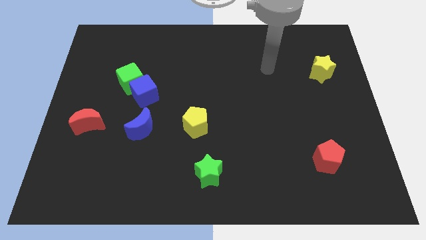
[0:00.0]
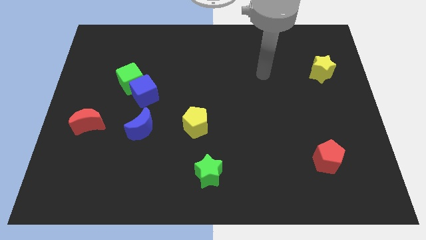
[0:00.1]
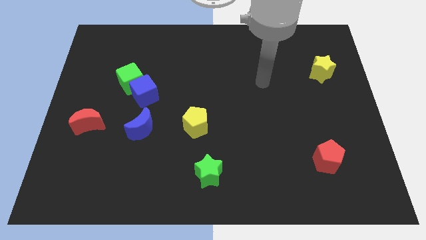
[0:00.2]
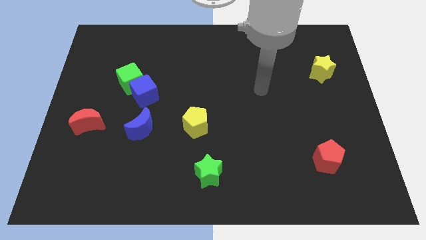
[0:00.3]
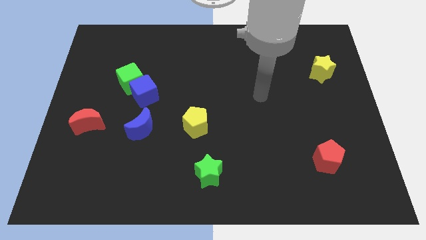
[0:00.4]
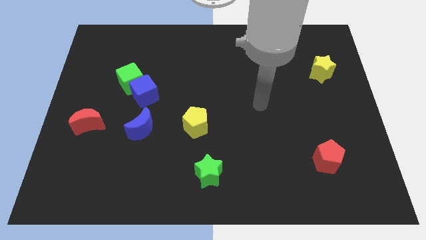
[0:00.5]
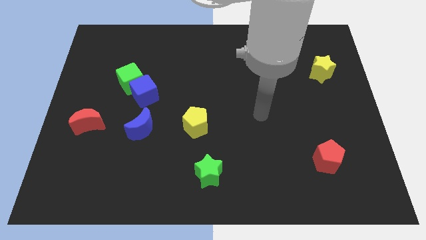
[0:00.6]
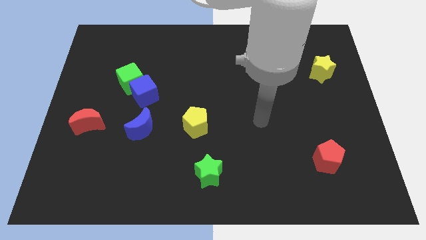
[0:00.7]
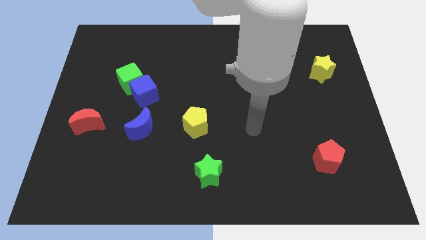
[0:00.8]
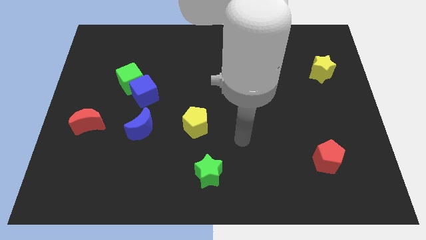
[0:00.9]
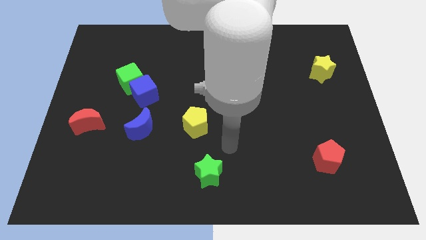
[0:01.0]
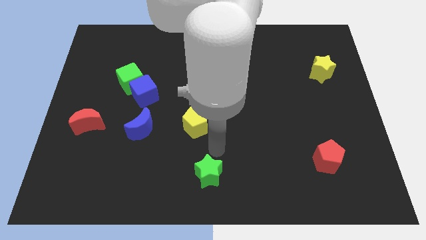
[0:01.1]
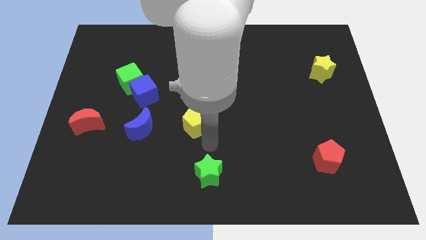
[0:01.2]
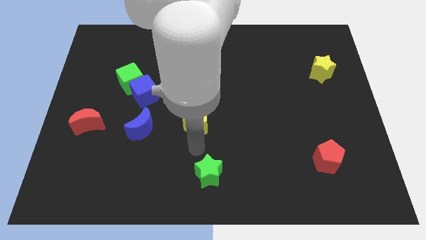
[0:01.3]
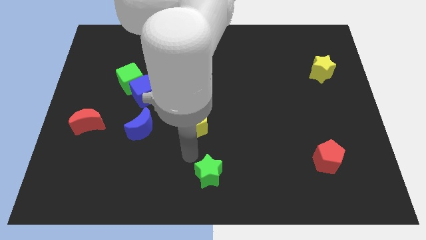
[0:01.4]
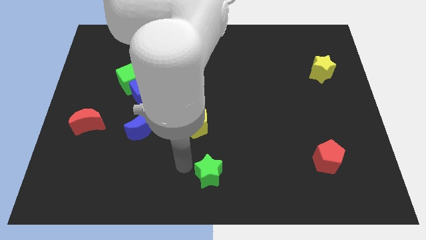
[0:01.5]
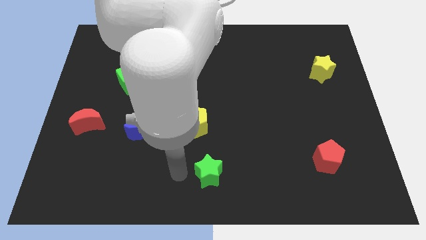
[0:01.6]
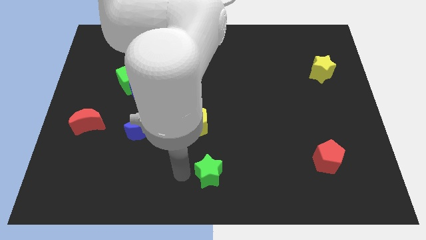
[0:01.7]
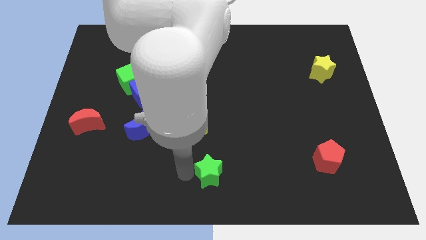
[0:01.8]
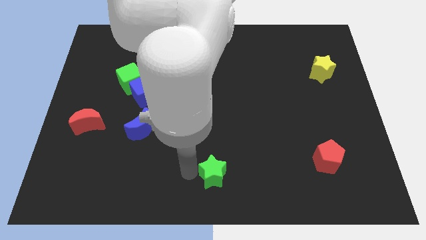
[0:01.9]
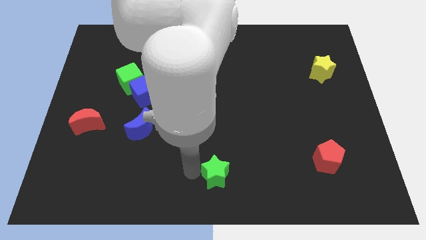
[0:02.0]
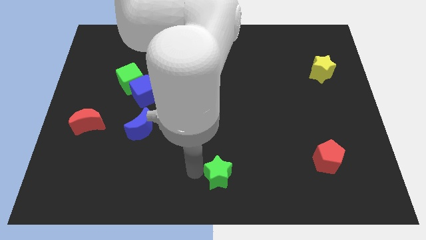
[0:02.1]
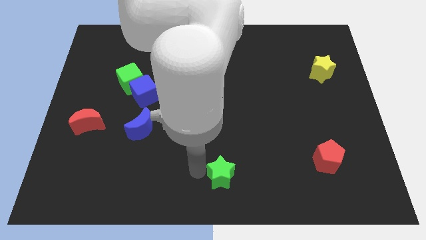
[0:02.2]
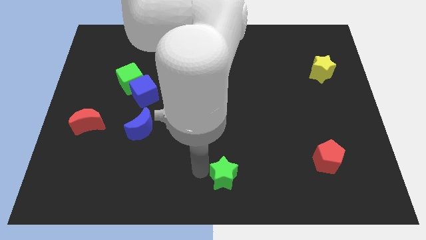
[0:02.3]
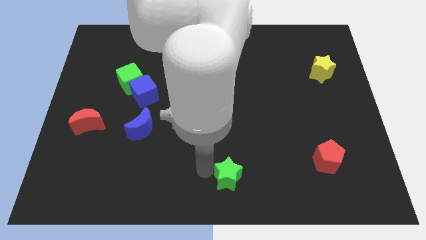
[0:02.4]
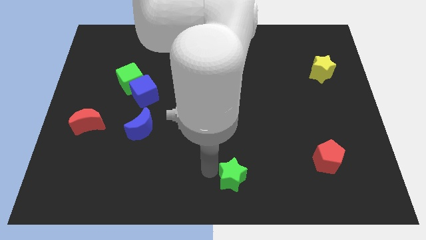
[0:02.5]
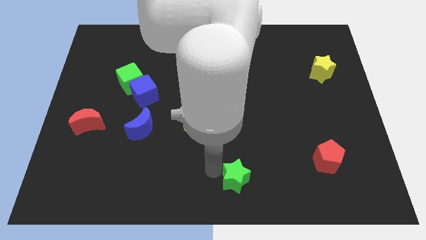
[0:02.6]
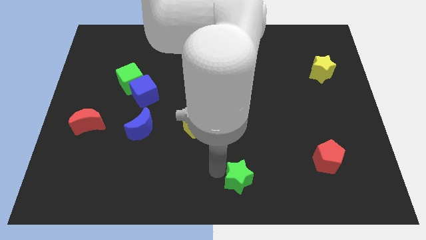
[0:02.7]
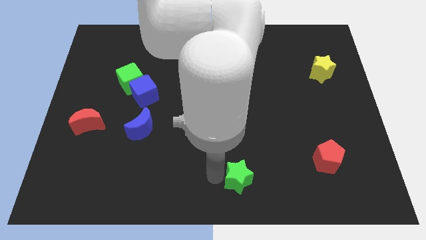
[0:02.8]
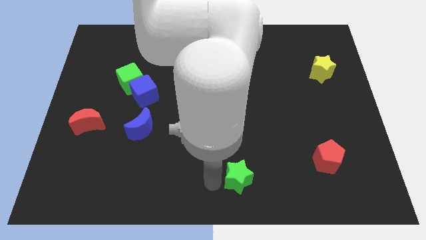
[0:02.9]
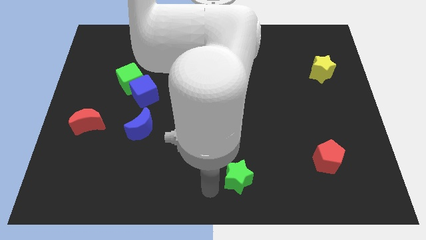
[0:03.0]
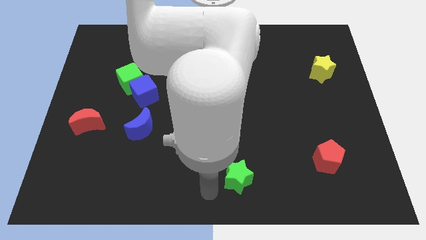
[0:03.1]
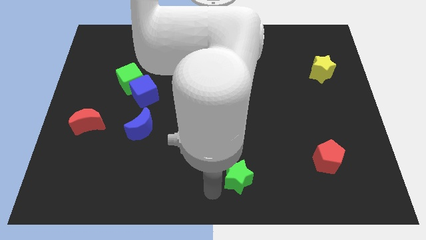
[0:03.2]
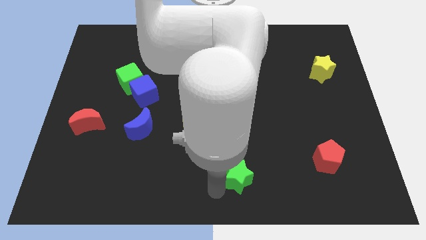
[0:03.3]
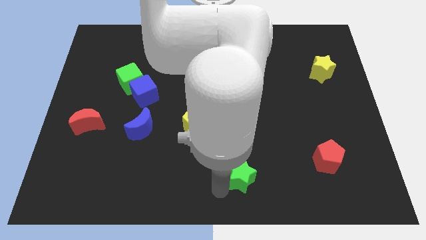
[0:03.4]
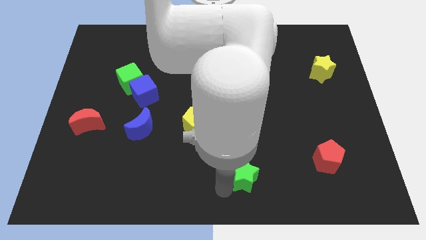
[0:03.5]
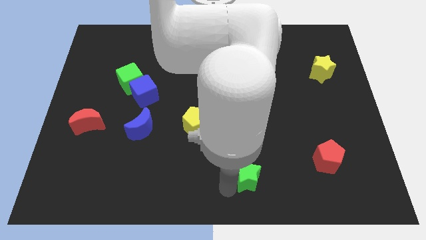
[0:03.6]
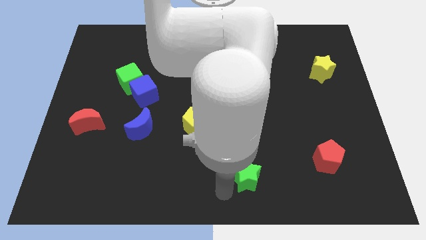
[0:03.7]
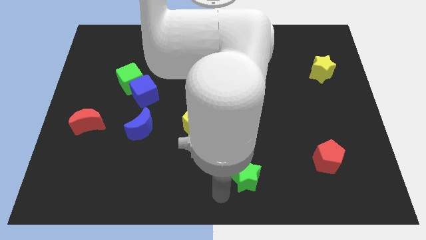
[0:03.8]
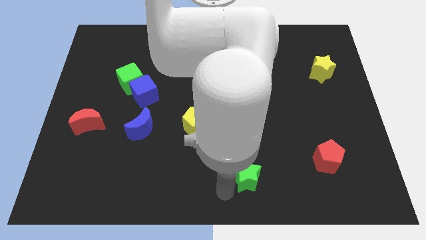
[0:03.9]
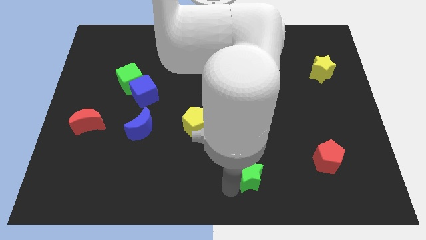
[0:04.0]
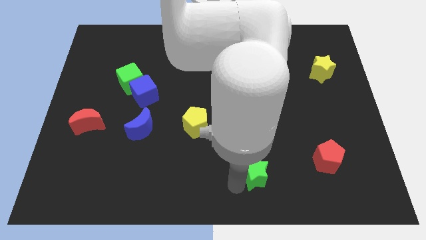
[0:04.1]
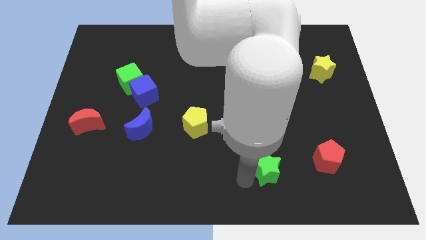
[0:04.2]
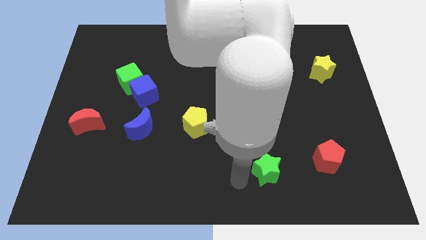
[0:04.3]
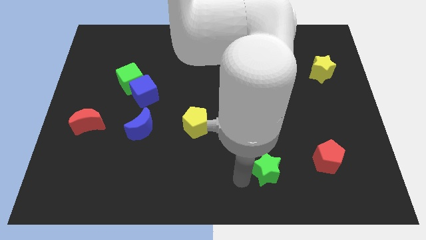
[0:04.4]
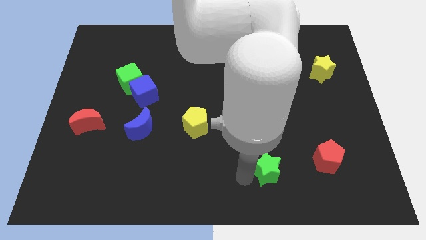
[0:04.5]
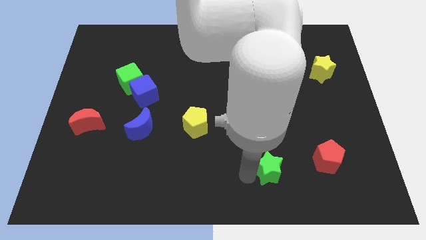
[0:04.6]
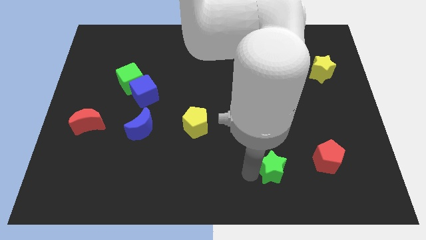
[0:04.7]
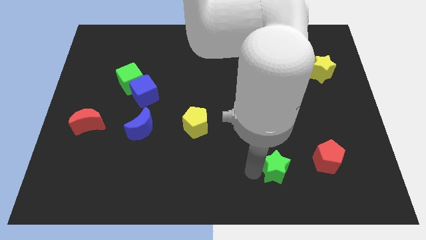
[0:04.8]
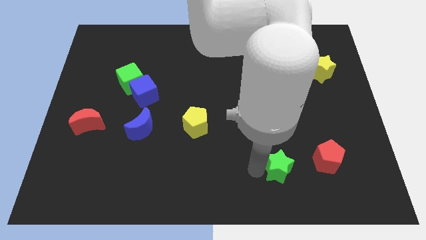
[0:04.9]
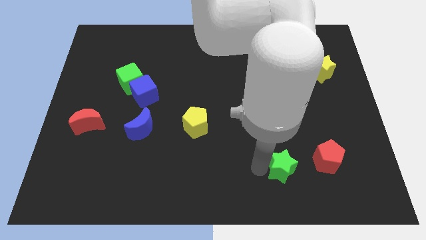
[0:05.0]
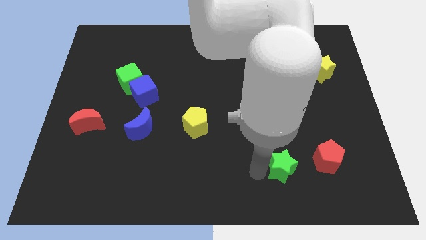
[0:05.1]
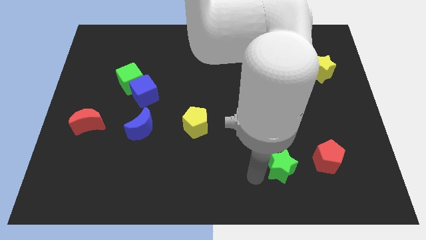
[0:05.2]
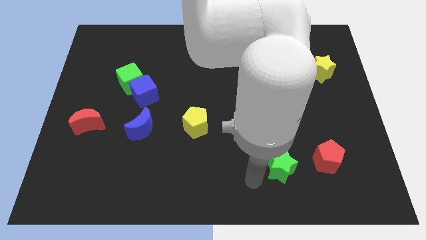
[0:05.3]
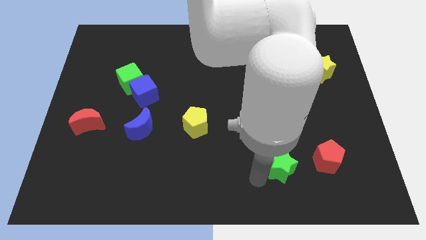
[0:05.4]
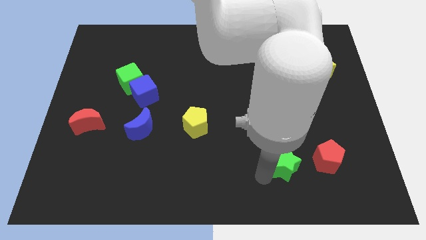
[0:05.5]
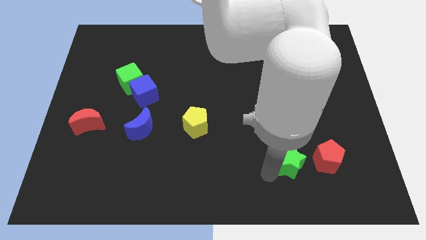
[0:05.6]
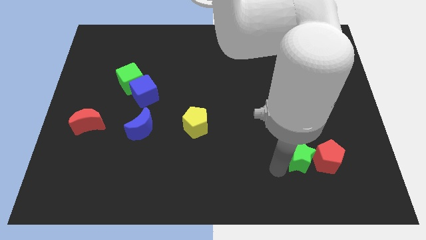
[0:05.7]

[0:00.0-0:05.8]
move the green star close to the red pentagon
